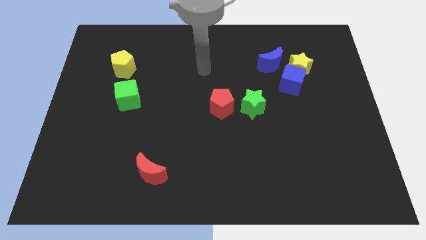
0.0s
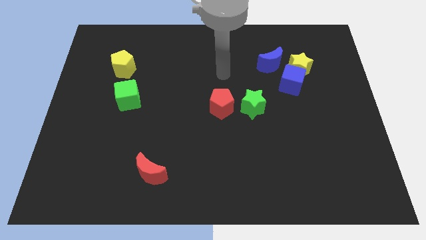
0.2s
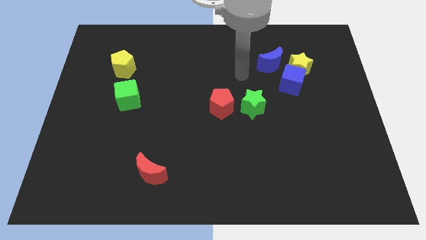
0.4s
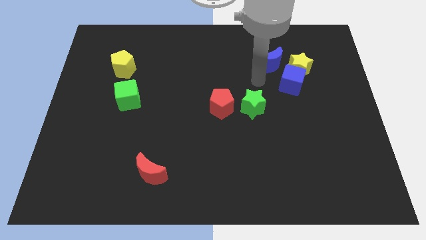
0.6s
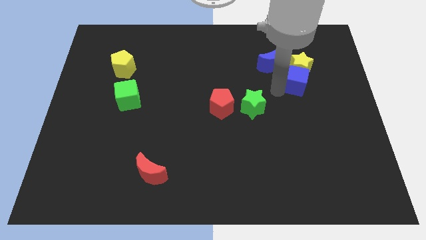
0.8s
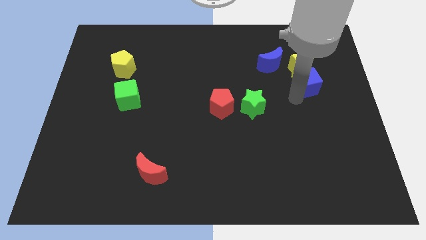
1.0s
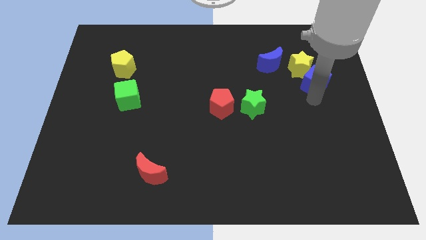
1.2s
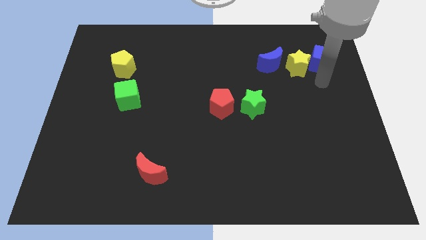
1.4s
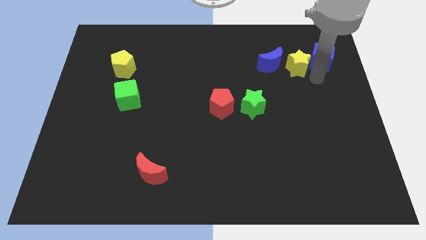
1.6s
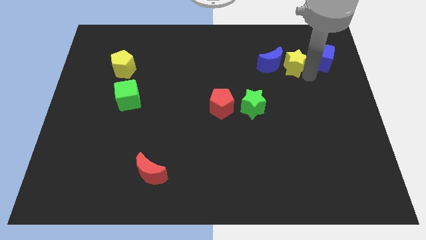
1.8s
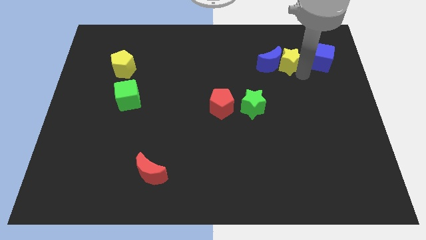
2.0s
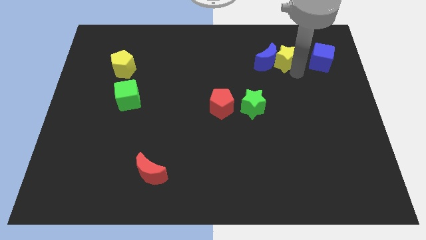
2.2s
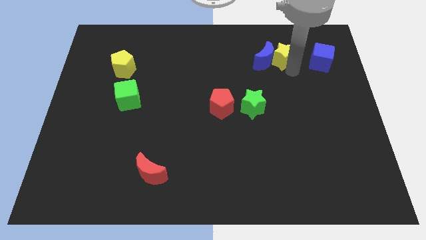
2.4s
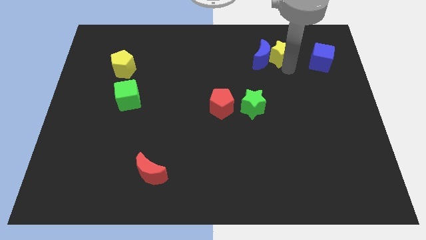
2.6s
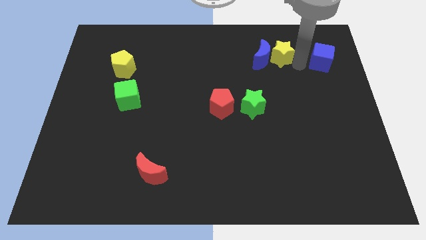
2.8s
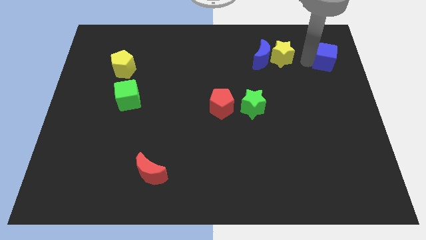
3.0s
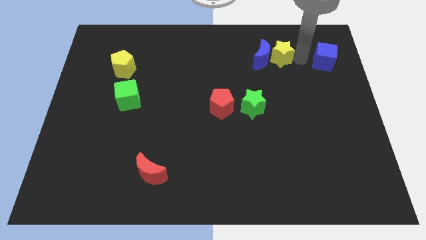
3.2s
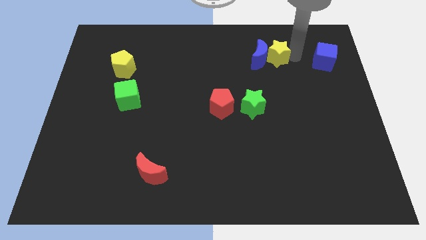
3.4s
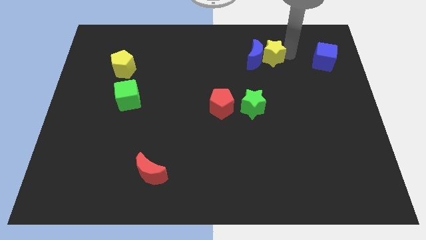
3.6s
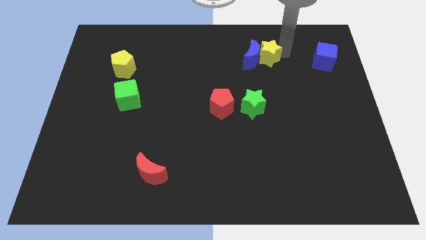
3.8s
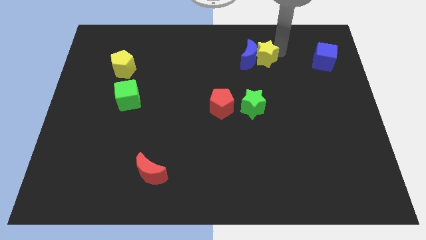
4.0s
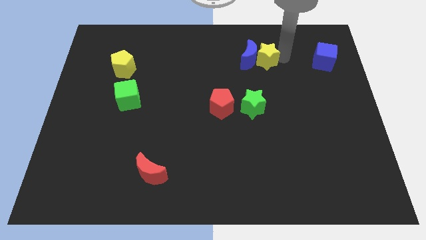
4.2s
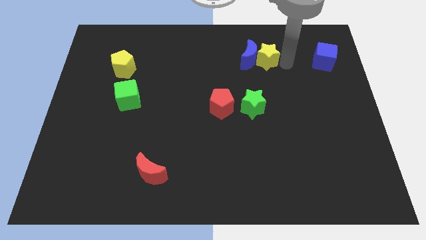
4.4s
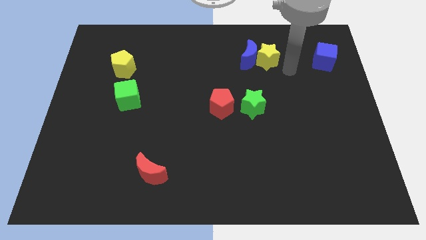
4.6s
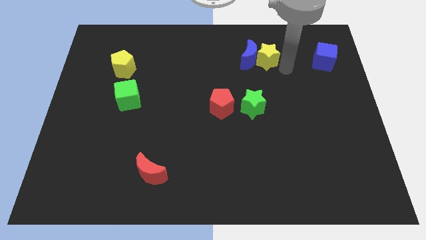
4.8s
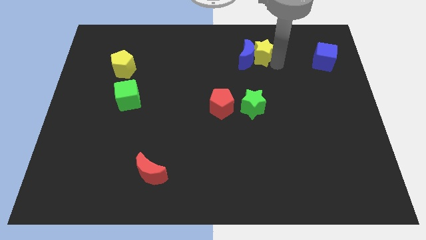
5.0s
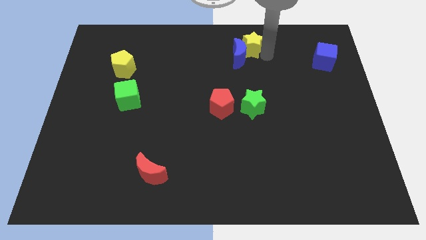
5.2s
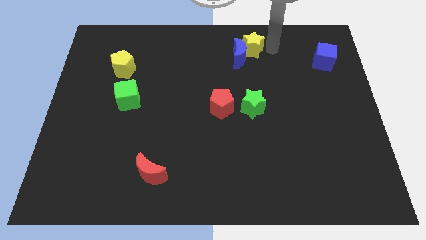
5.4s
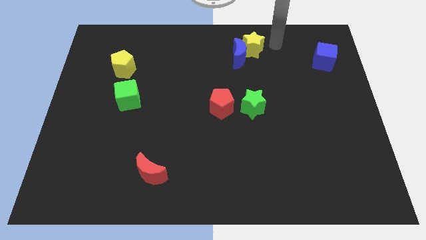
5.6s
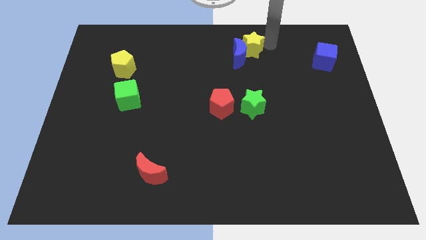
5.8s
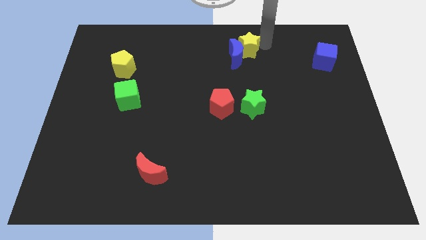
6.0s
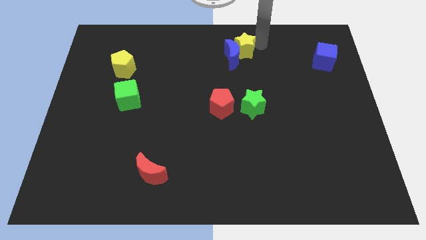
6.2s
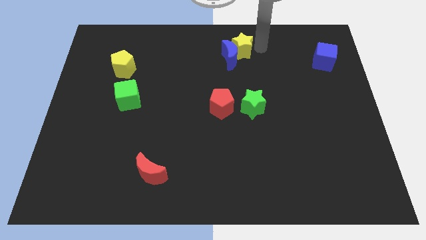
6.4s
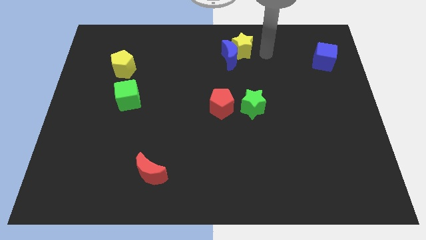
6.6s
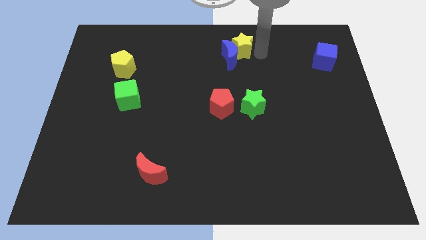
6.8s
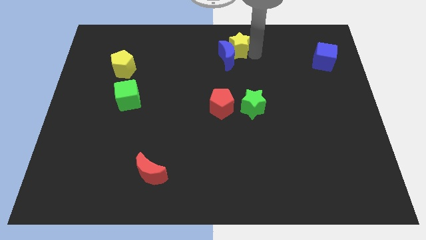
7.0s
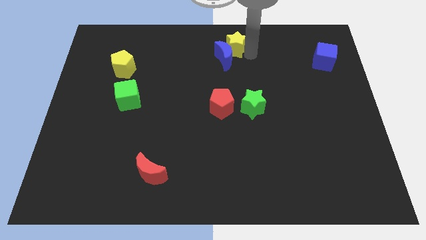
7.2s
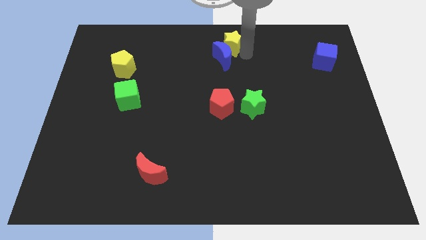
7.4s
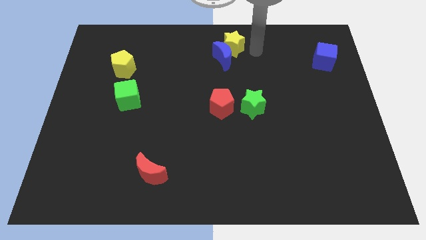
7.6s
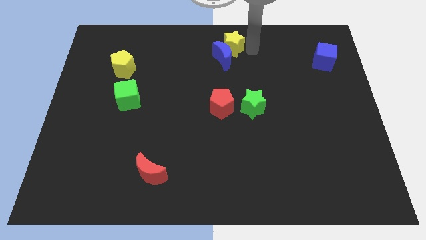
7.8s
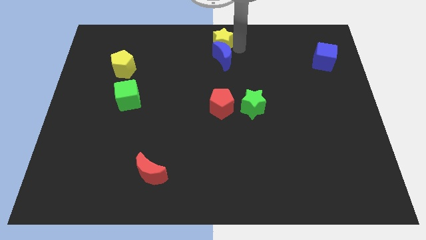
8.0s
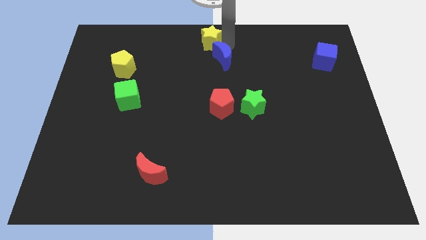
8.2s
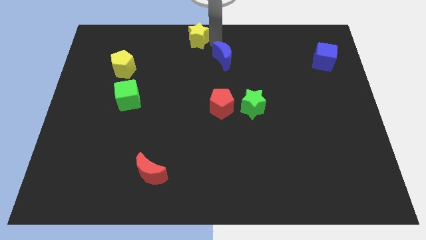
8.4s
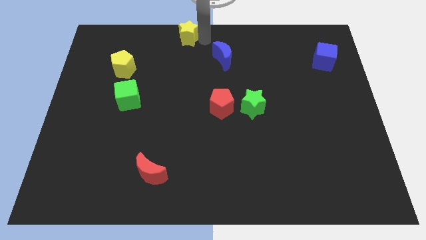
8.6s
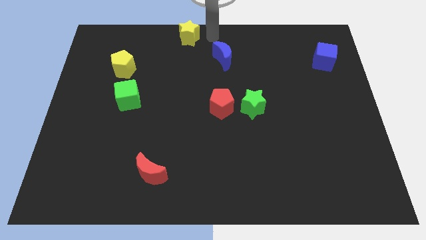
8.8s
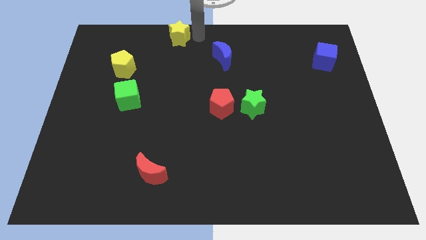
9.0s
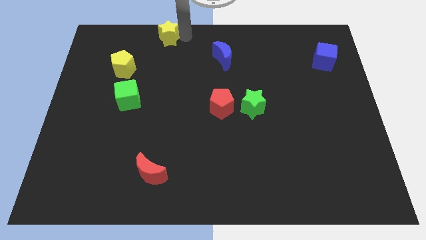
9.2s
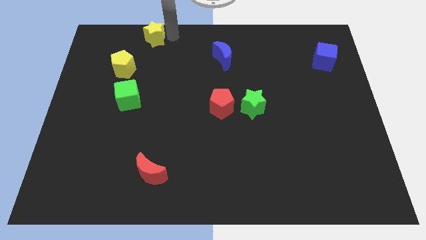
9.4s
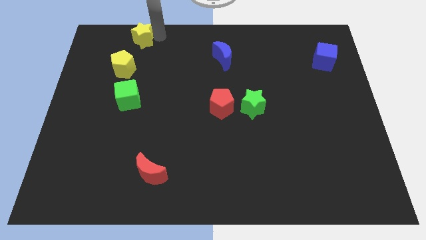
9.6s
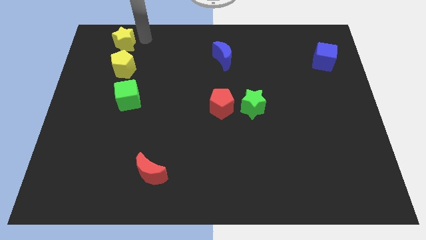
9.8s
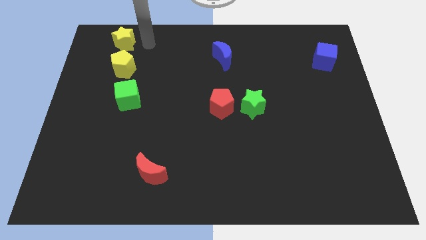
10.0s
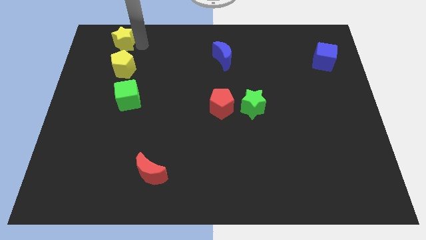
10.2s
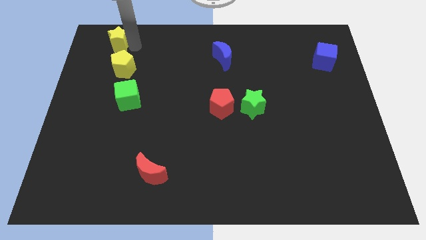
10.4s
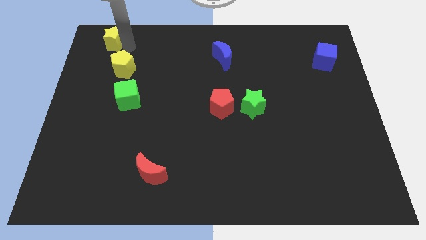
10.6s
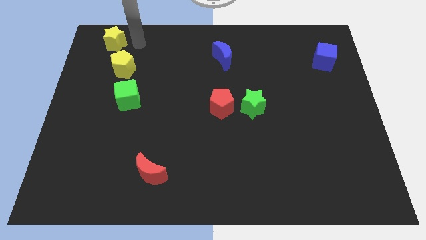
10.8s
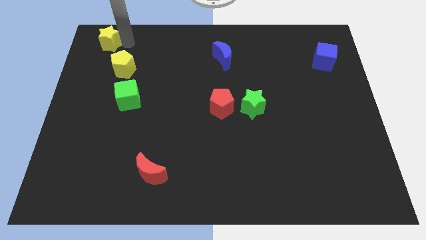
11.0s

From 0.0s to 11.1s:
push the yellow star to the top left of the board
